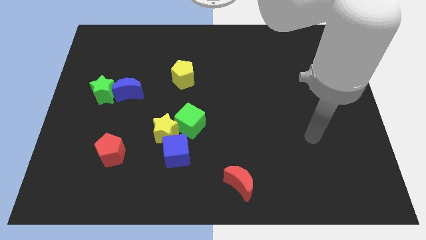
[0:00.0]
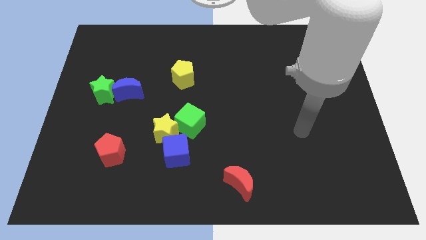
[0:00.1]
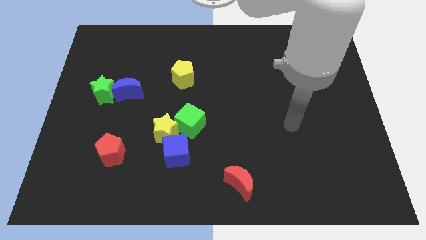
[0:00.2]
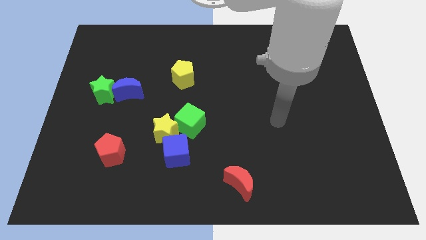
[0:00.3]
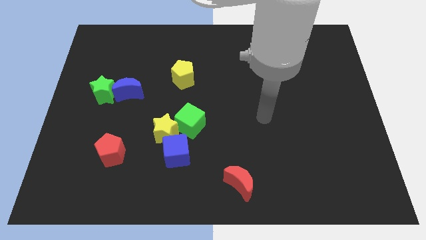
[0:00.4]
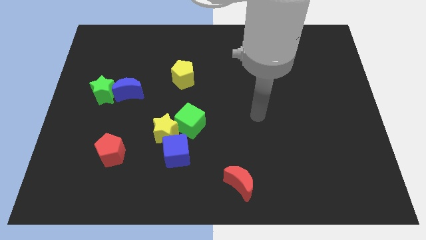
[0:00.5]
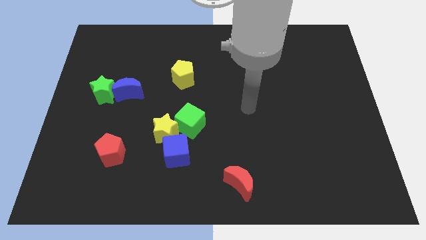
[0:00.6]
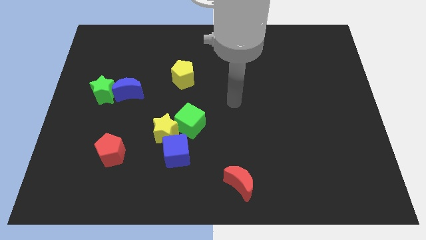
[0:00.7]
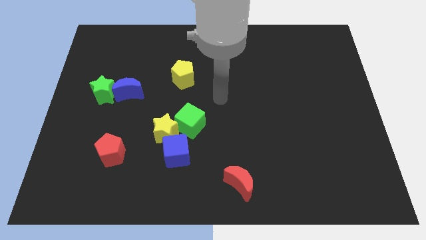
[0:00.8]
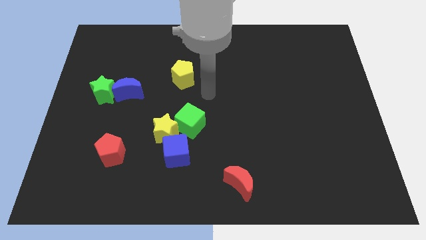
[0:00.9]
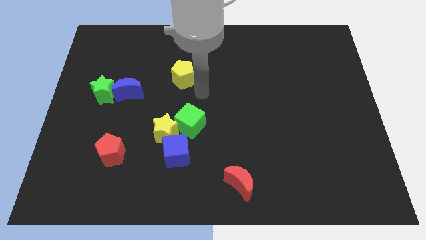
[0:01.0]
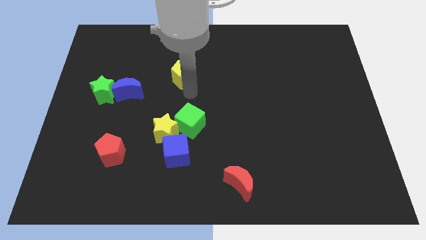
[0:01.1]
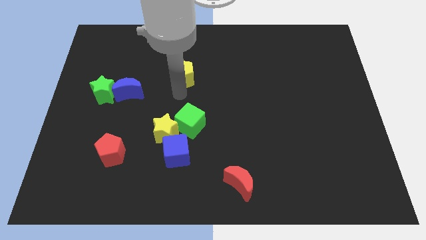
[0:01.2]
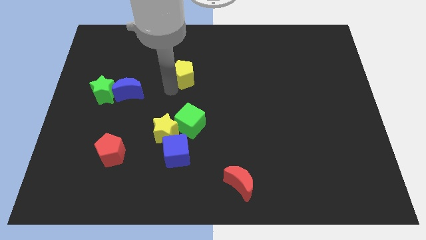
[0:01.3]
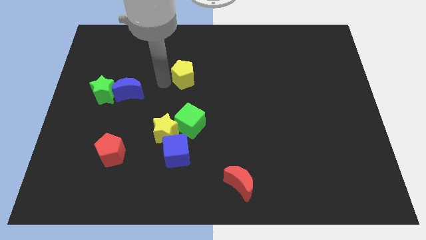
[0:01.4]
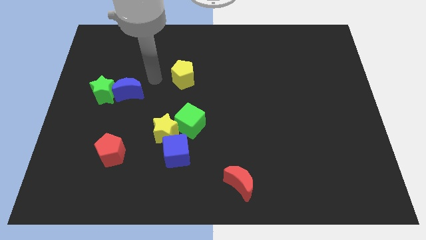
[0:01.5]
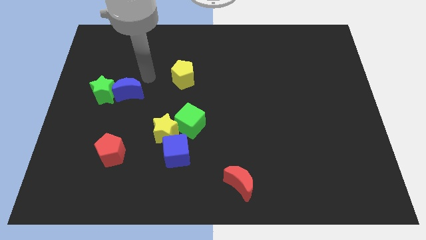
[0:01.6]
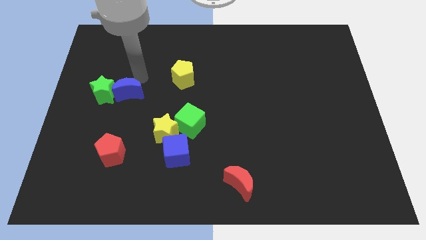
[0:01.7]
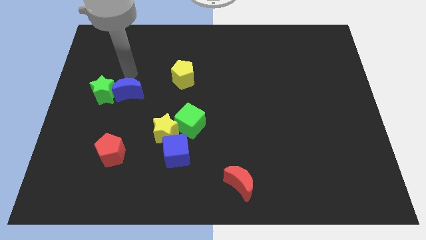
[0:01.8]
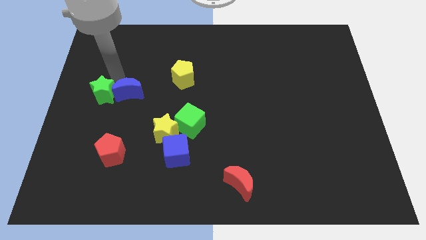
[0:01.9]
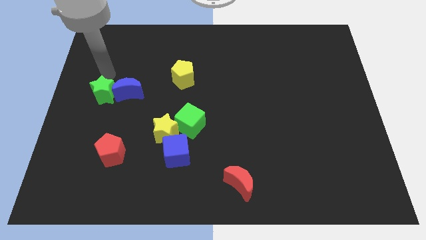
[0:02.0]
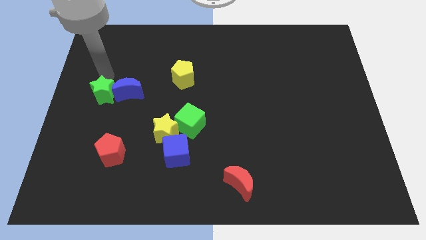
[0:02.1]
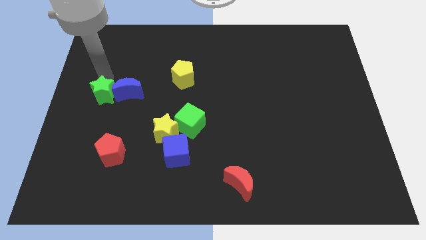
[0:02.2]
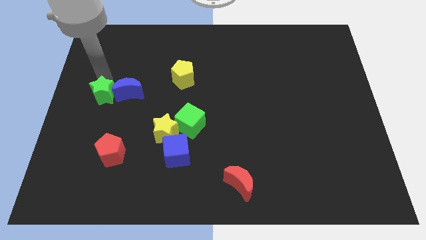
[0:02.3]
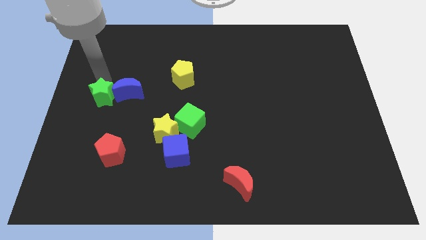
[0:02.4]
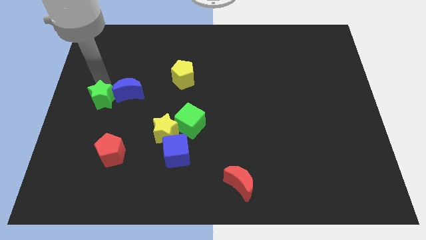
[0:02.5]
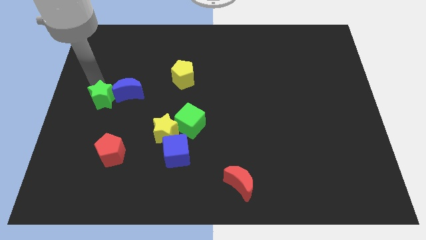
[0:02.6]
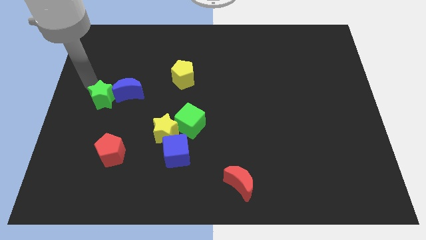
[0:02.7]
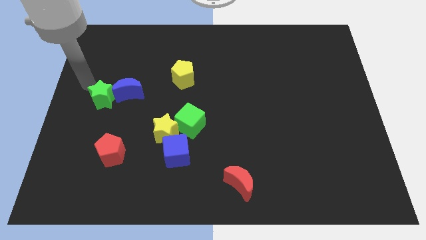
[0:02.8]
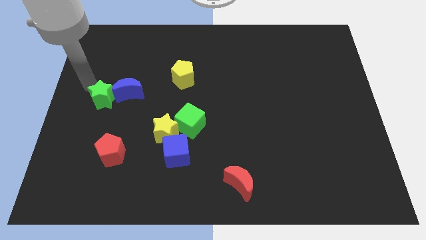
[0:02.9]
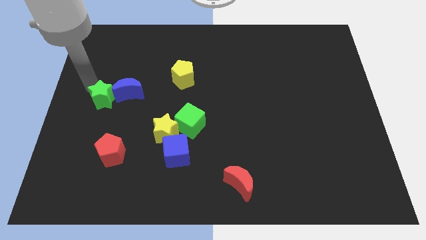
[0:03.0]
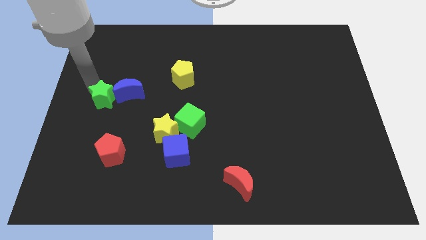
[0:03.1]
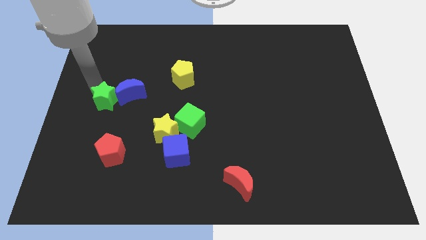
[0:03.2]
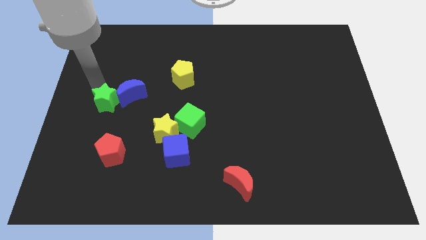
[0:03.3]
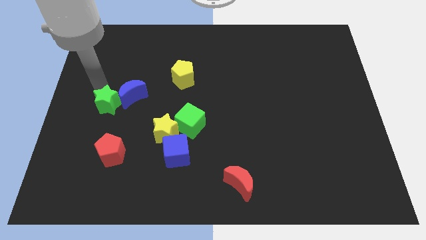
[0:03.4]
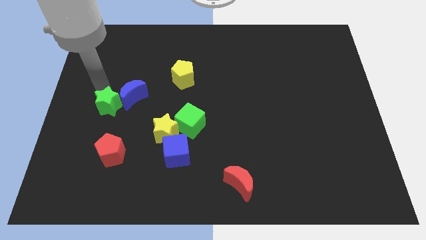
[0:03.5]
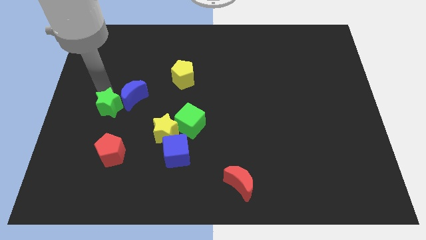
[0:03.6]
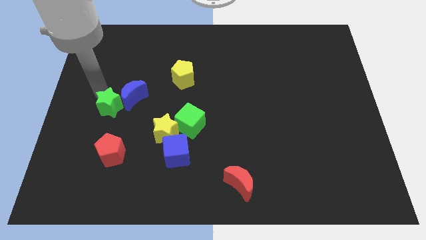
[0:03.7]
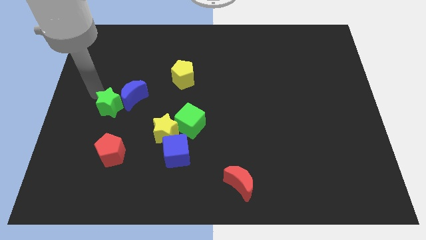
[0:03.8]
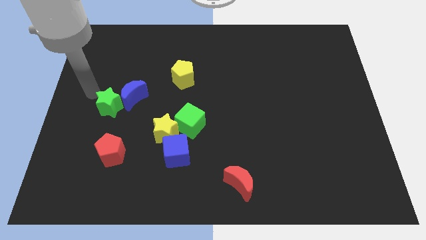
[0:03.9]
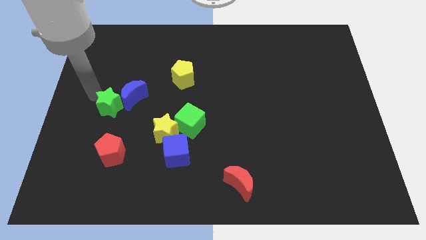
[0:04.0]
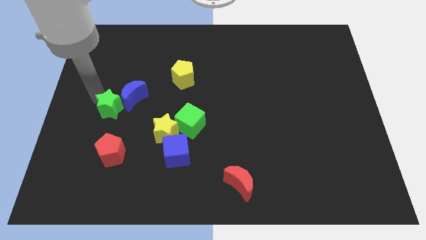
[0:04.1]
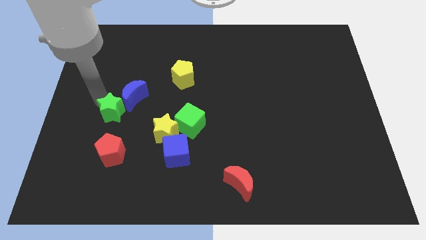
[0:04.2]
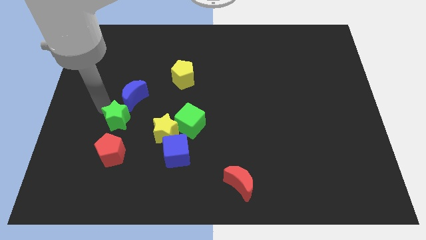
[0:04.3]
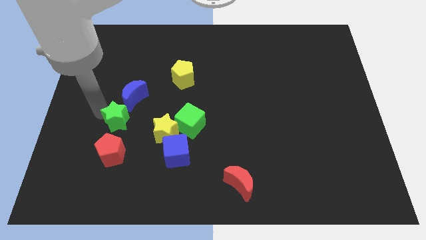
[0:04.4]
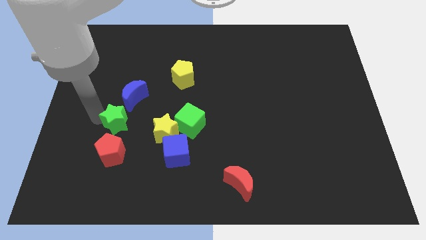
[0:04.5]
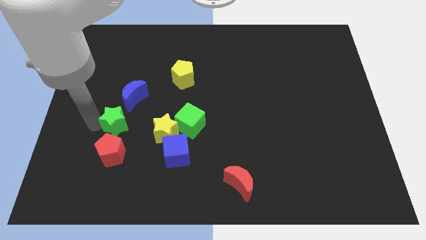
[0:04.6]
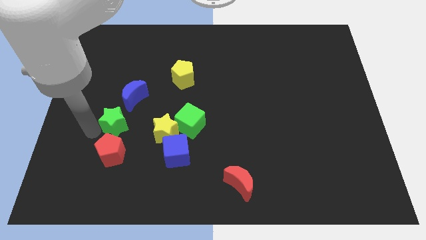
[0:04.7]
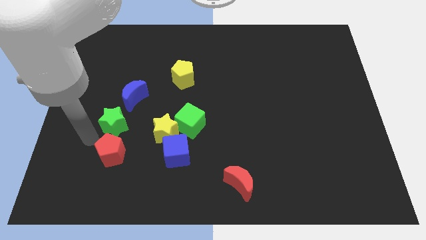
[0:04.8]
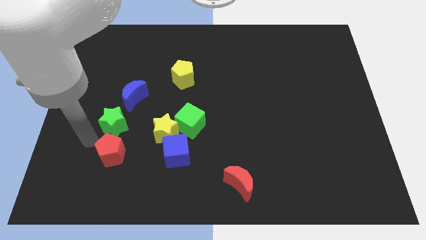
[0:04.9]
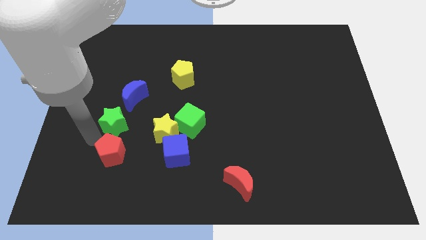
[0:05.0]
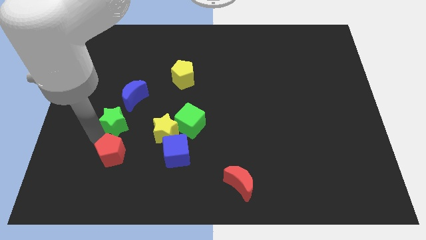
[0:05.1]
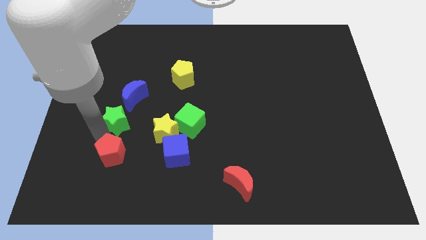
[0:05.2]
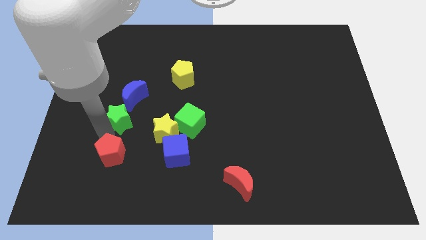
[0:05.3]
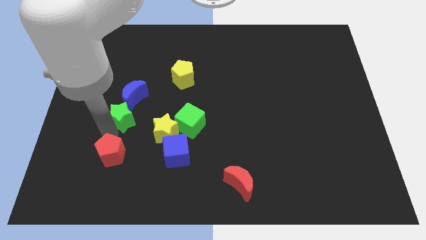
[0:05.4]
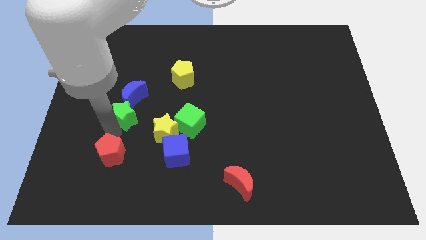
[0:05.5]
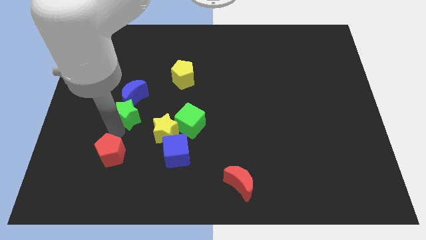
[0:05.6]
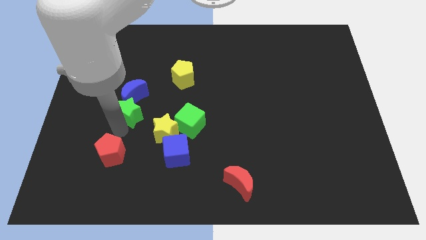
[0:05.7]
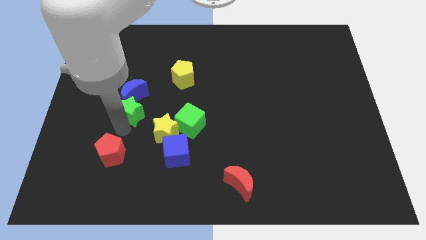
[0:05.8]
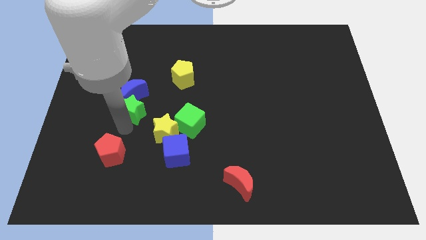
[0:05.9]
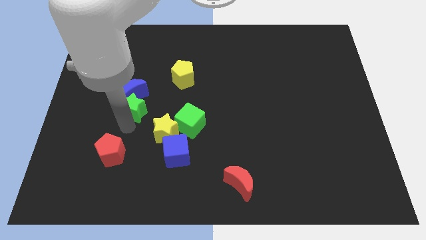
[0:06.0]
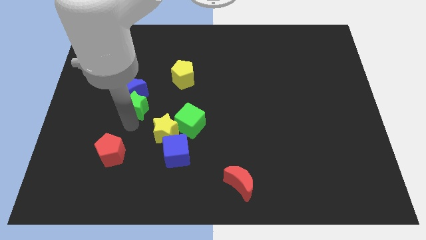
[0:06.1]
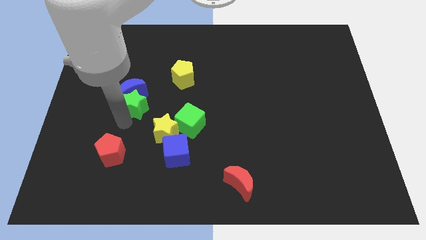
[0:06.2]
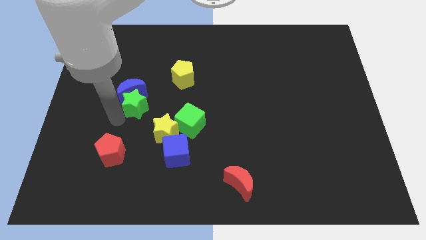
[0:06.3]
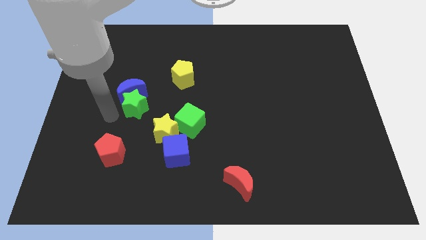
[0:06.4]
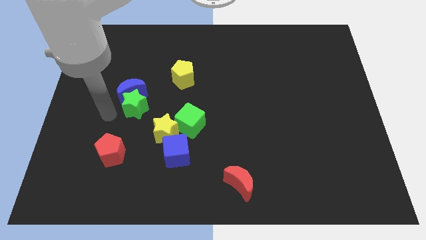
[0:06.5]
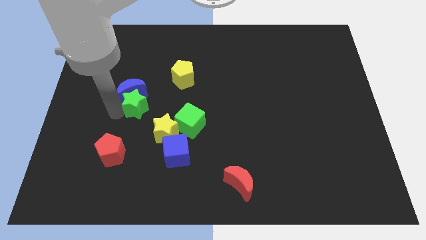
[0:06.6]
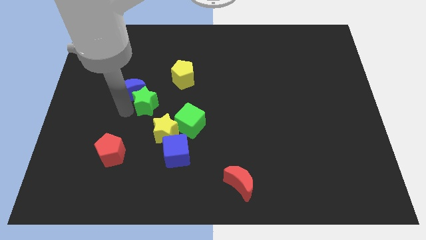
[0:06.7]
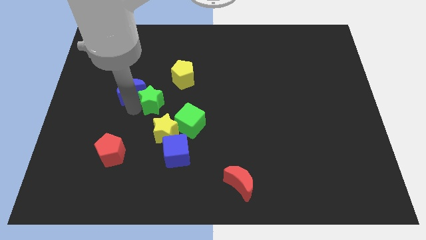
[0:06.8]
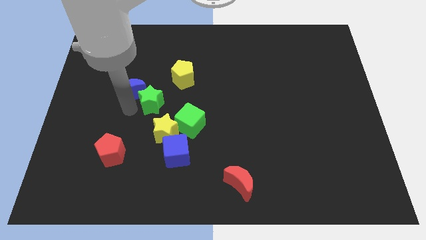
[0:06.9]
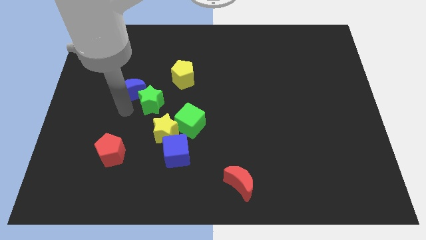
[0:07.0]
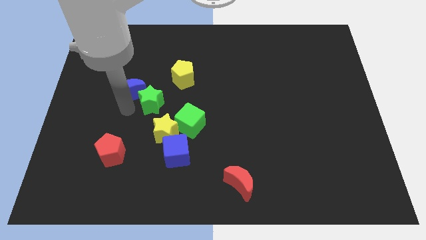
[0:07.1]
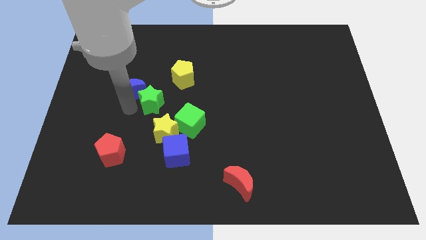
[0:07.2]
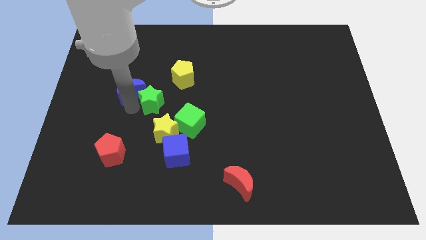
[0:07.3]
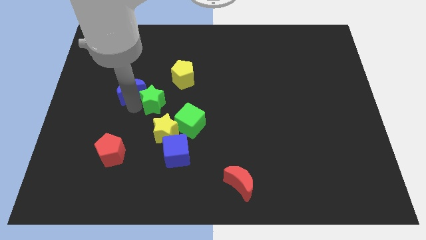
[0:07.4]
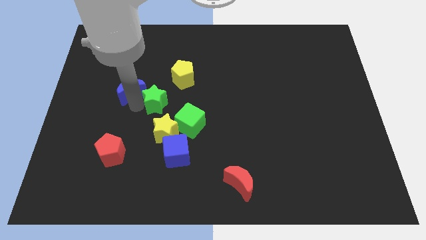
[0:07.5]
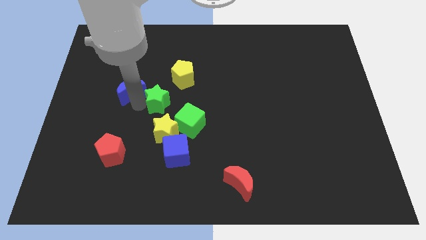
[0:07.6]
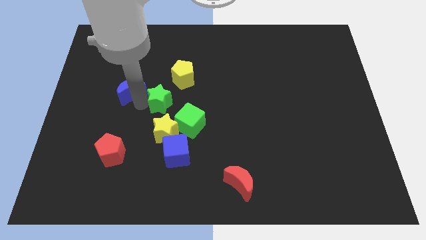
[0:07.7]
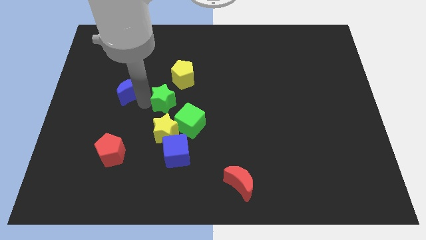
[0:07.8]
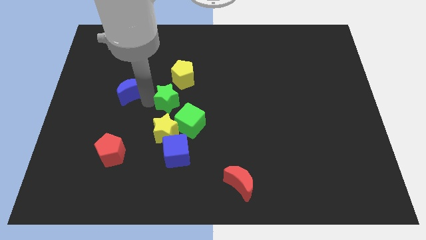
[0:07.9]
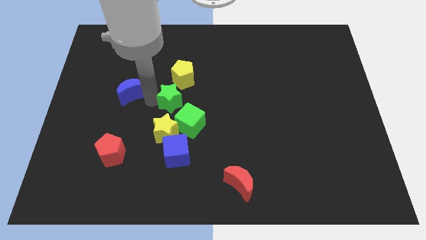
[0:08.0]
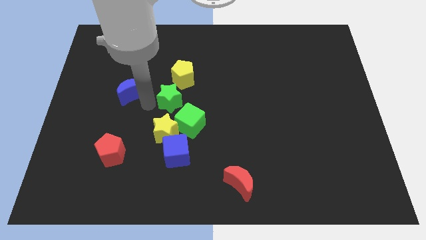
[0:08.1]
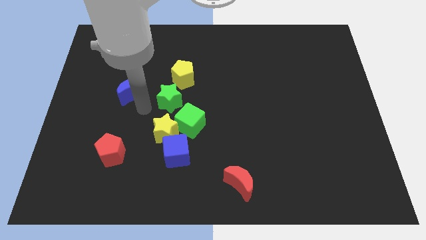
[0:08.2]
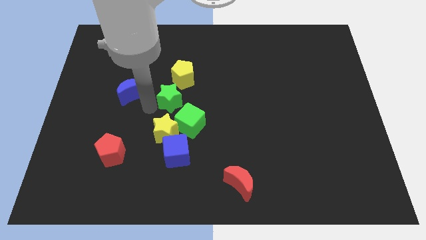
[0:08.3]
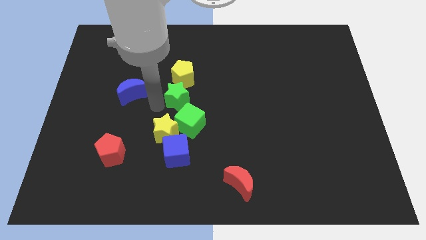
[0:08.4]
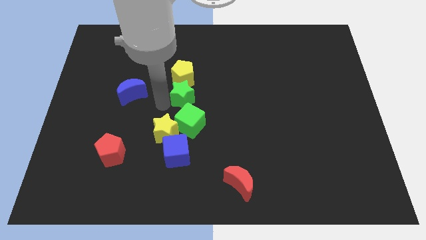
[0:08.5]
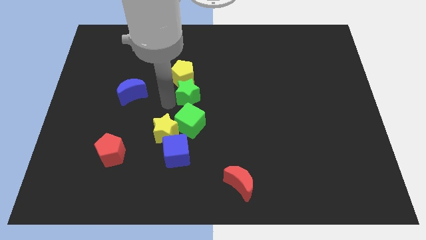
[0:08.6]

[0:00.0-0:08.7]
move the green star to the right
